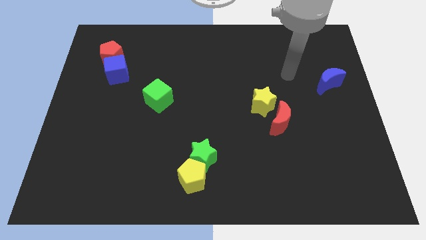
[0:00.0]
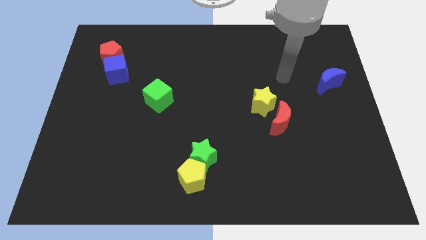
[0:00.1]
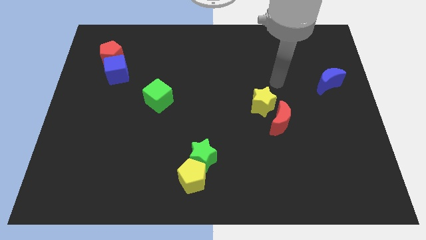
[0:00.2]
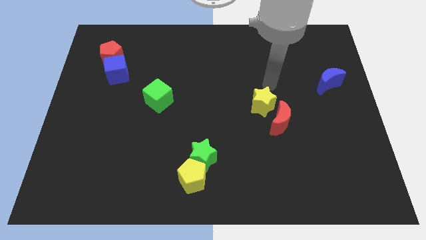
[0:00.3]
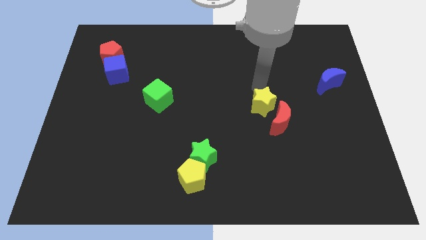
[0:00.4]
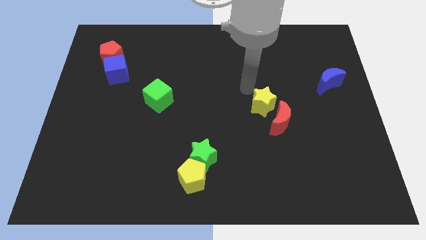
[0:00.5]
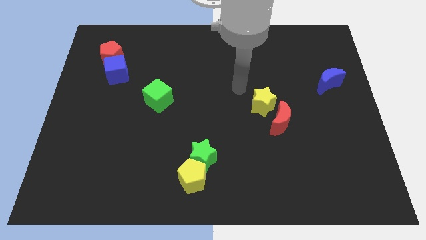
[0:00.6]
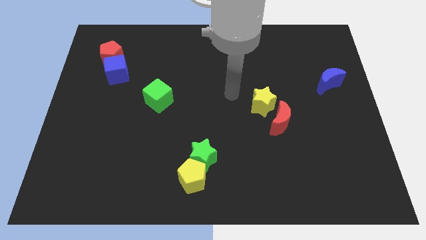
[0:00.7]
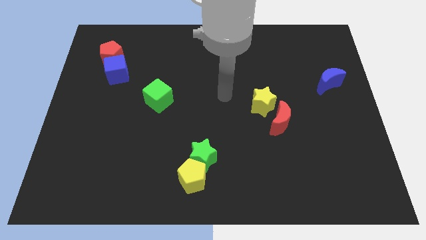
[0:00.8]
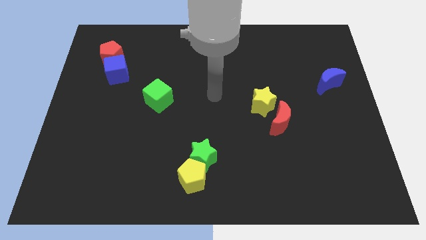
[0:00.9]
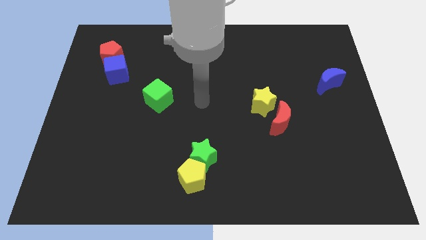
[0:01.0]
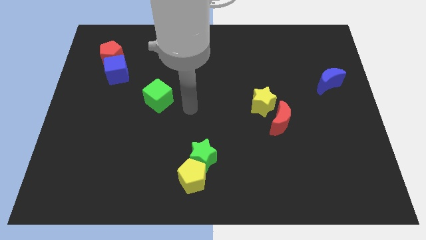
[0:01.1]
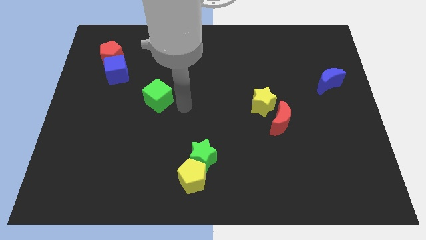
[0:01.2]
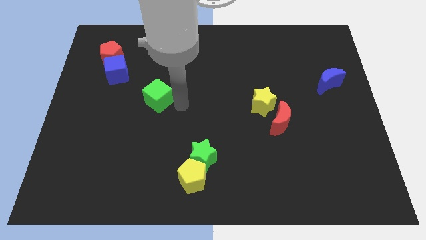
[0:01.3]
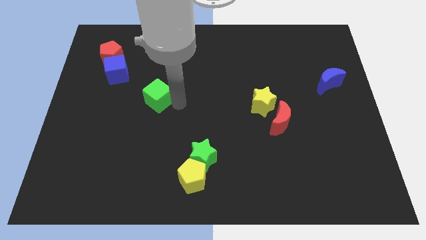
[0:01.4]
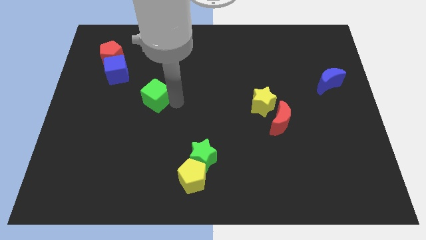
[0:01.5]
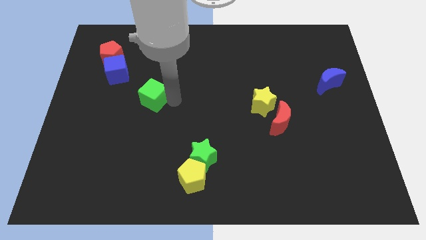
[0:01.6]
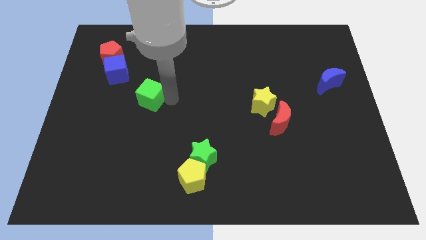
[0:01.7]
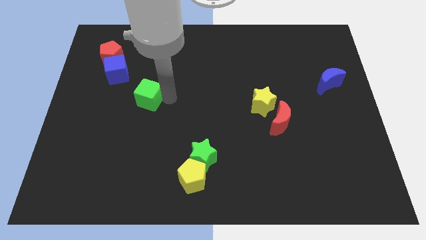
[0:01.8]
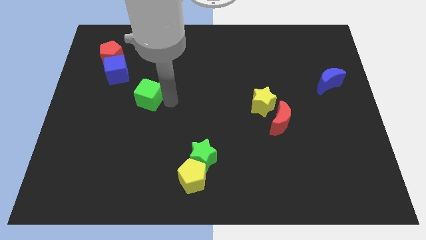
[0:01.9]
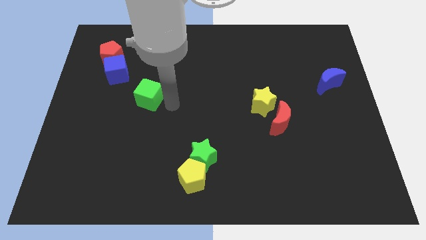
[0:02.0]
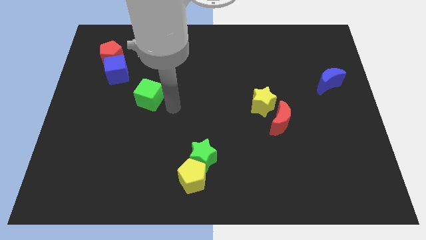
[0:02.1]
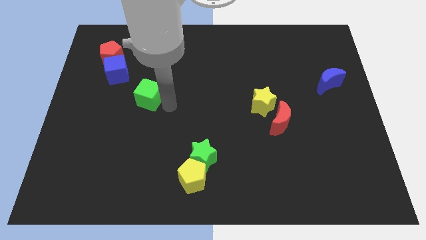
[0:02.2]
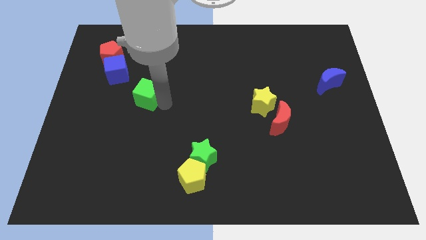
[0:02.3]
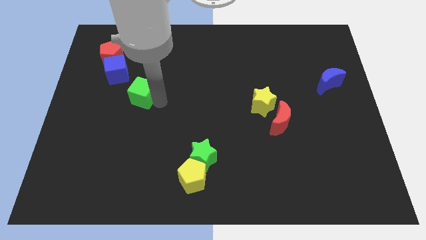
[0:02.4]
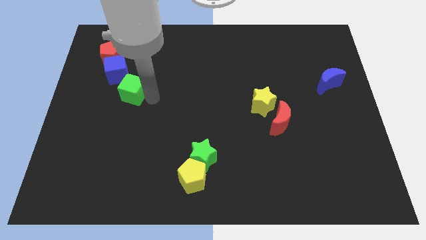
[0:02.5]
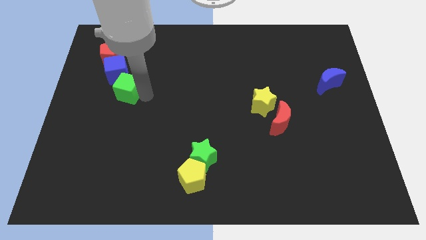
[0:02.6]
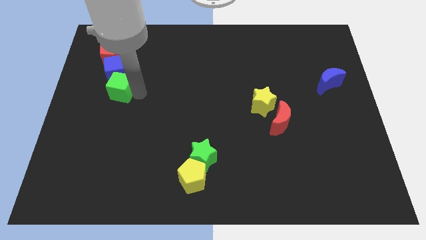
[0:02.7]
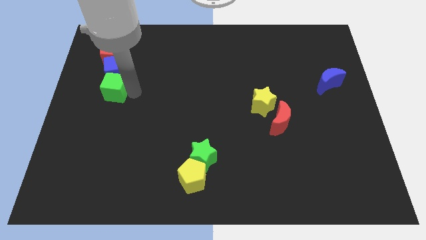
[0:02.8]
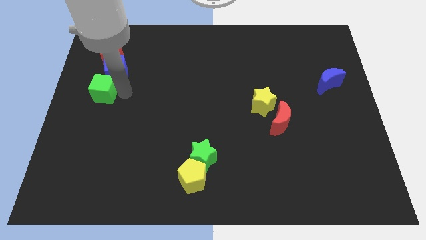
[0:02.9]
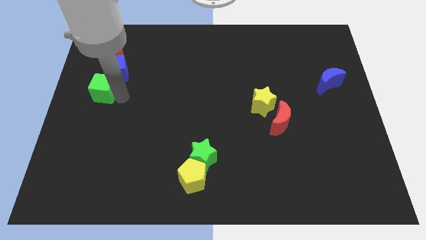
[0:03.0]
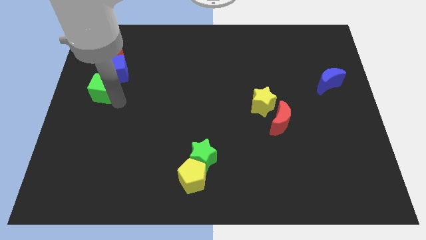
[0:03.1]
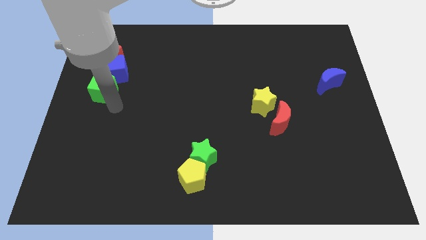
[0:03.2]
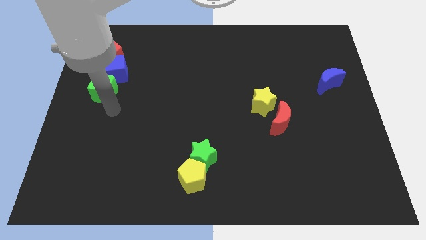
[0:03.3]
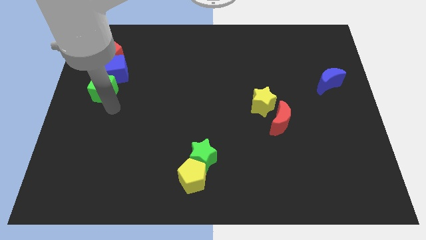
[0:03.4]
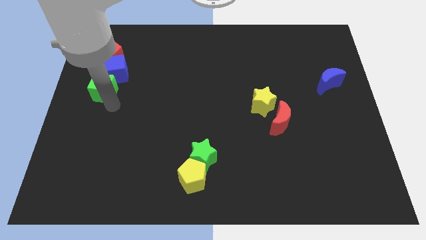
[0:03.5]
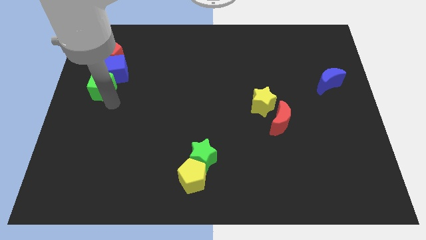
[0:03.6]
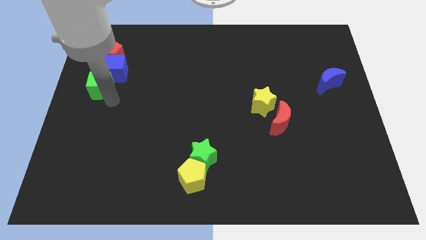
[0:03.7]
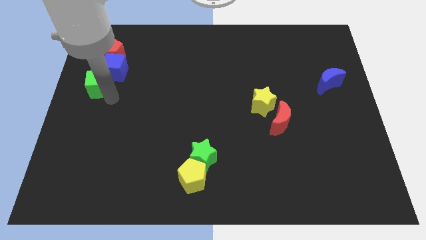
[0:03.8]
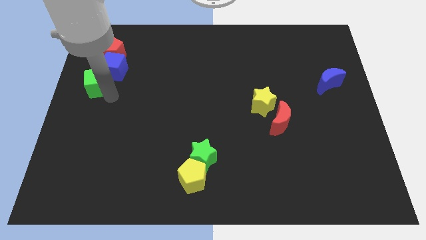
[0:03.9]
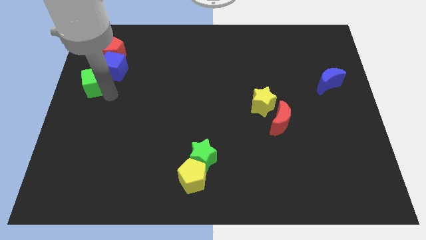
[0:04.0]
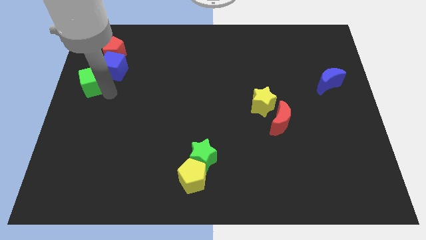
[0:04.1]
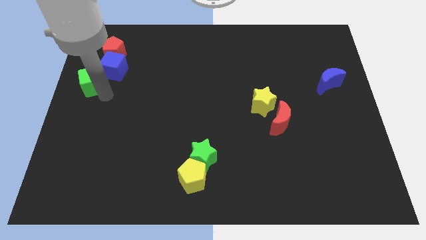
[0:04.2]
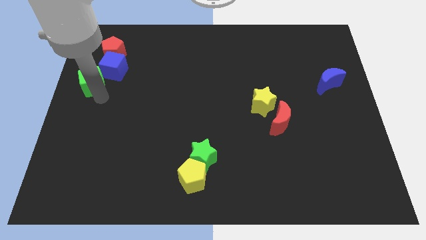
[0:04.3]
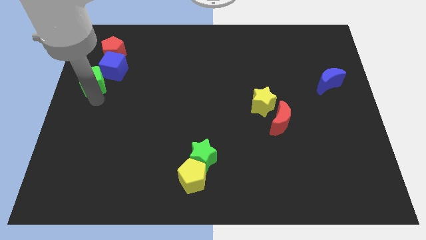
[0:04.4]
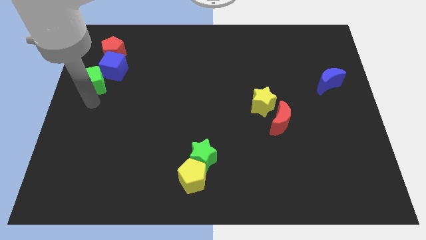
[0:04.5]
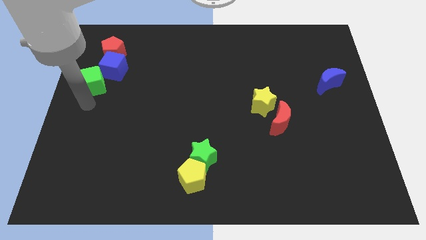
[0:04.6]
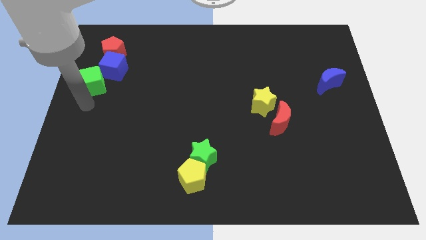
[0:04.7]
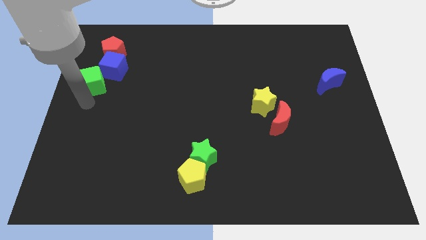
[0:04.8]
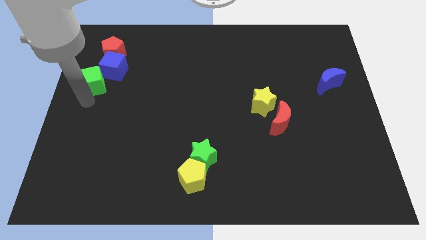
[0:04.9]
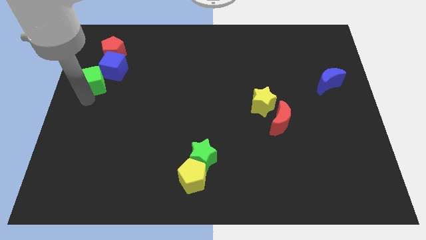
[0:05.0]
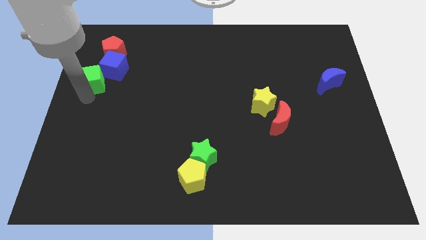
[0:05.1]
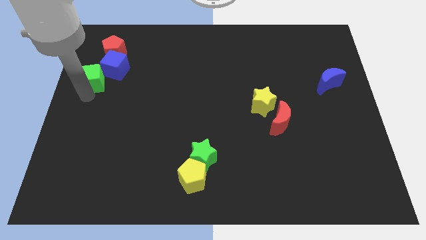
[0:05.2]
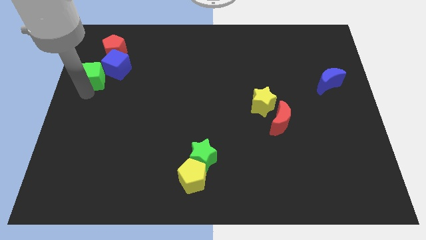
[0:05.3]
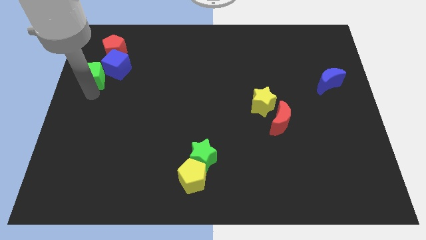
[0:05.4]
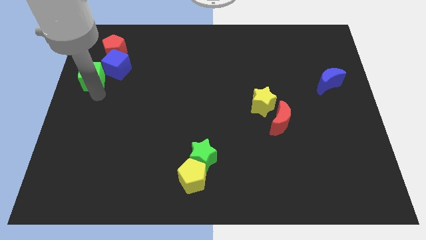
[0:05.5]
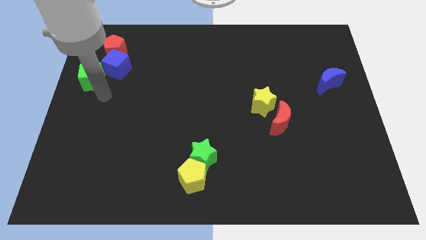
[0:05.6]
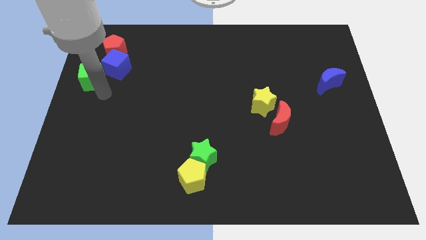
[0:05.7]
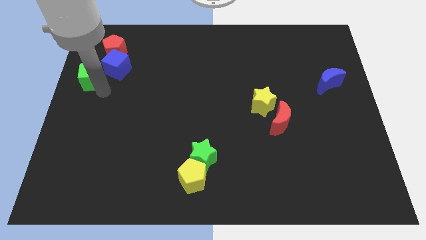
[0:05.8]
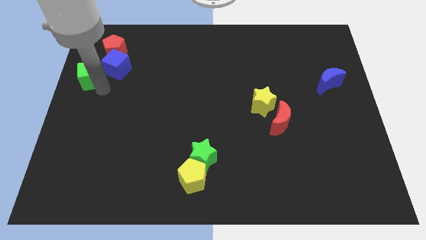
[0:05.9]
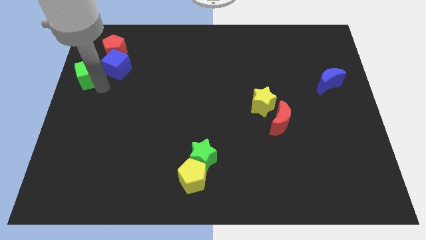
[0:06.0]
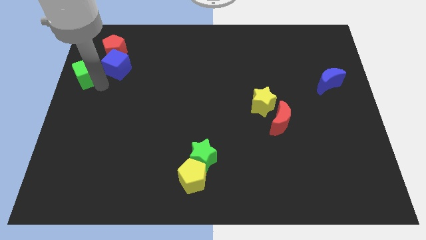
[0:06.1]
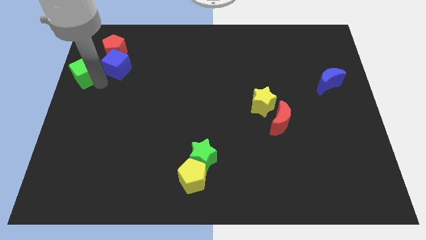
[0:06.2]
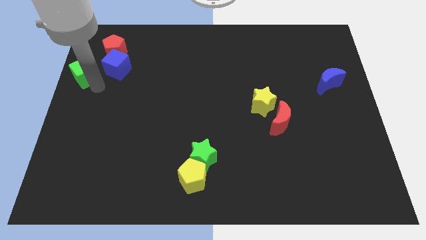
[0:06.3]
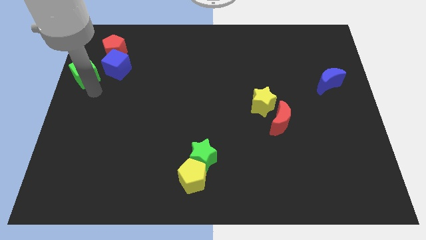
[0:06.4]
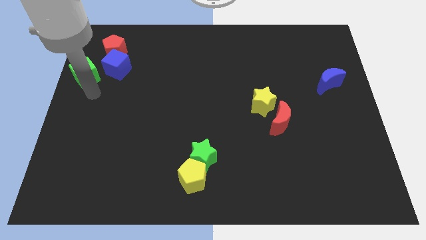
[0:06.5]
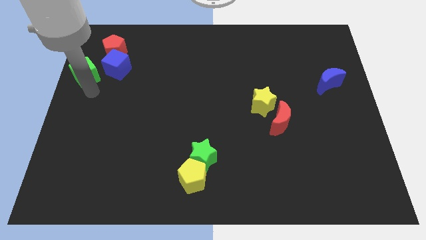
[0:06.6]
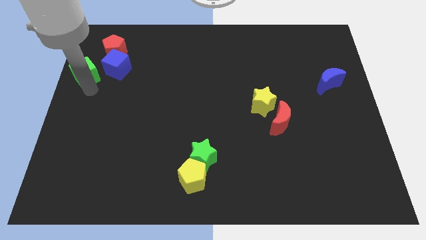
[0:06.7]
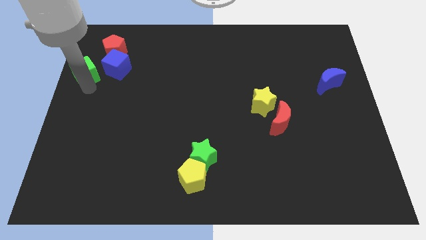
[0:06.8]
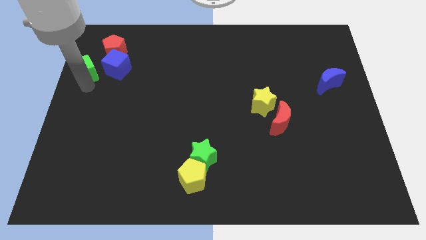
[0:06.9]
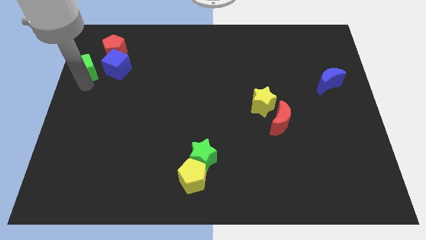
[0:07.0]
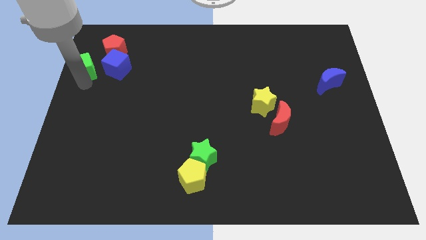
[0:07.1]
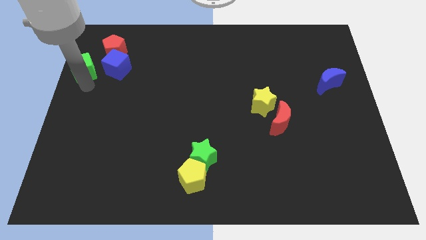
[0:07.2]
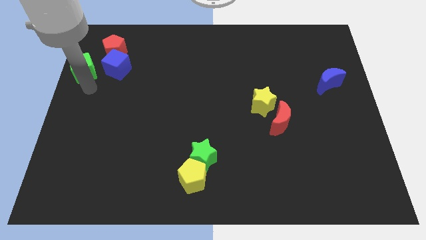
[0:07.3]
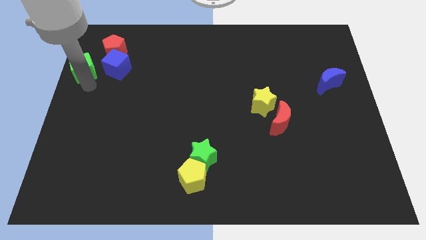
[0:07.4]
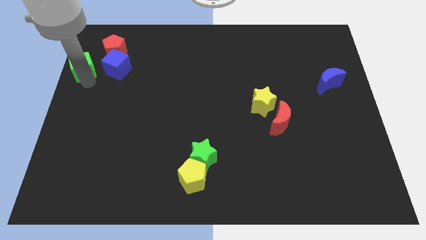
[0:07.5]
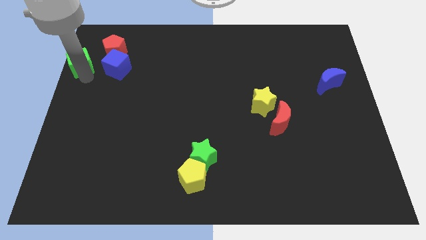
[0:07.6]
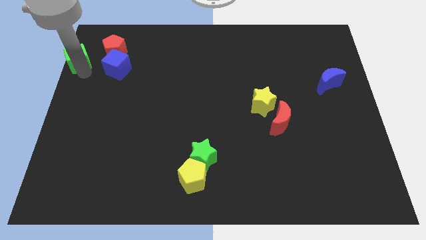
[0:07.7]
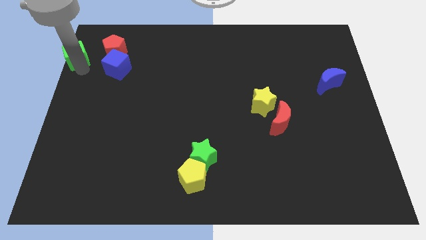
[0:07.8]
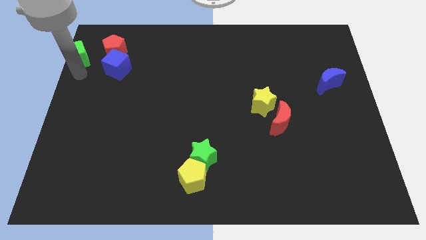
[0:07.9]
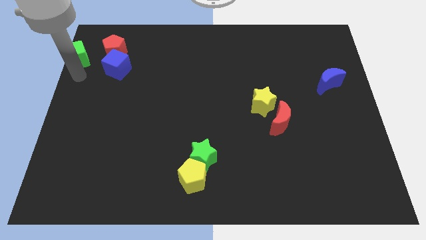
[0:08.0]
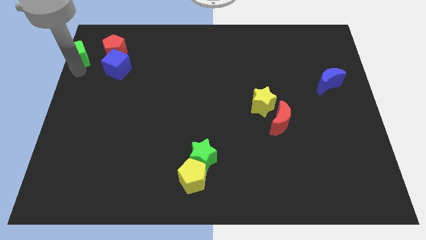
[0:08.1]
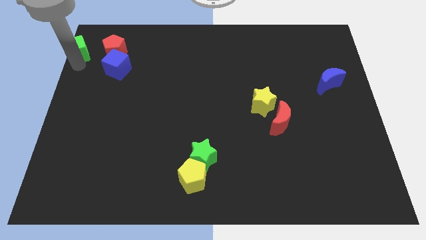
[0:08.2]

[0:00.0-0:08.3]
slide the green cube to the top left corner
